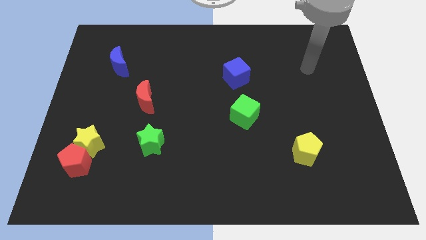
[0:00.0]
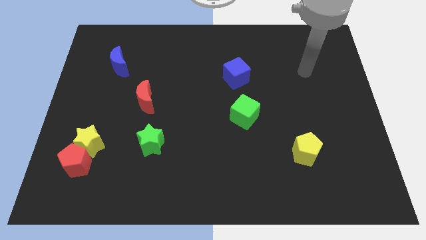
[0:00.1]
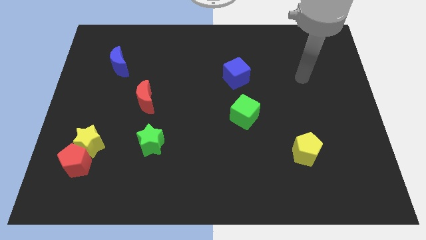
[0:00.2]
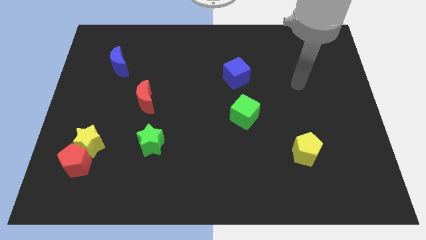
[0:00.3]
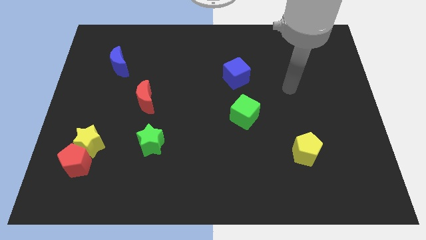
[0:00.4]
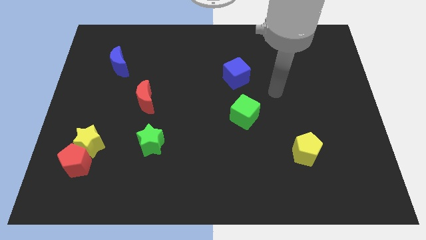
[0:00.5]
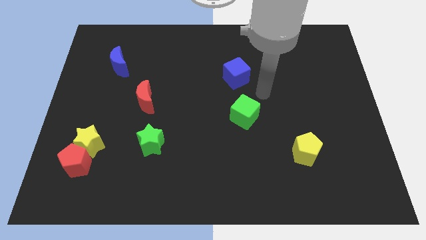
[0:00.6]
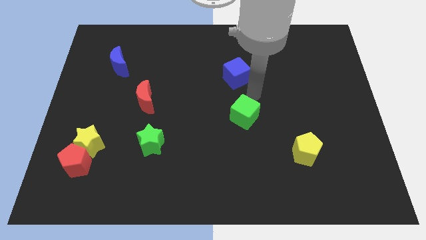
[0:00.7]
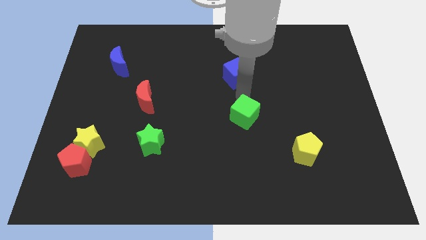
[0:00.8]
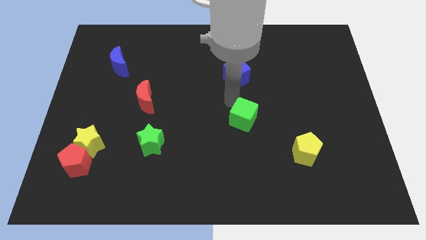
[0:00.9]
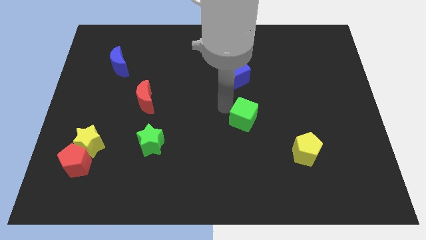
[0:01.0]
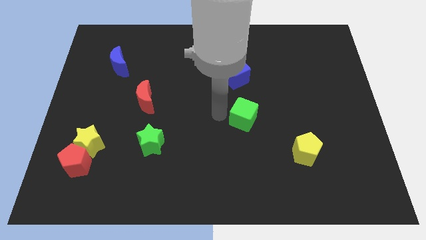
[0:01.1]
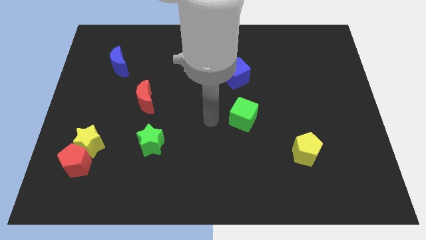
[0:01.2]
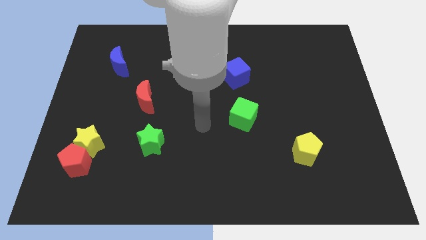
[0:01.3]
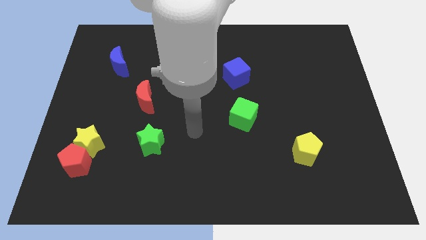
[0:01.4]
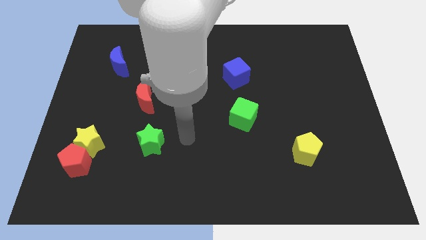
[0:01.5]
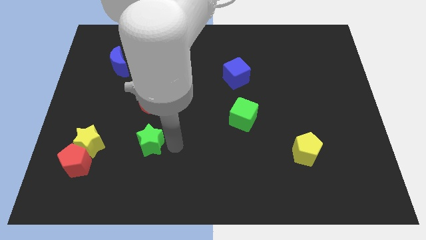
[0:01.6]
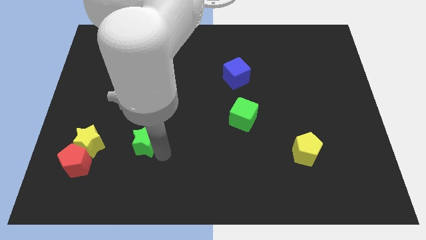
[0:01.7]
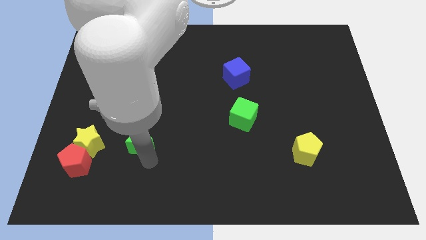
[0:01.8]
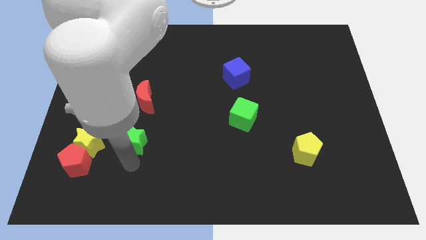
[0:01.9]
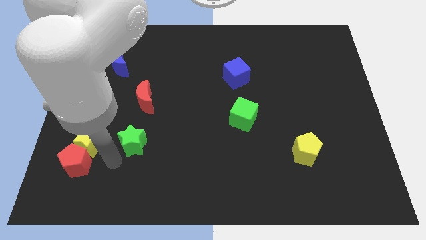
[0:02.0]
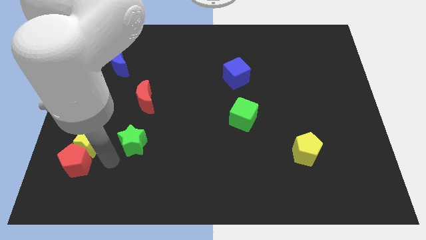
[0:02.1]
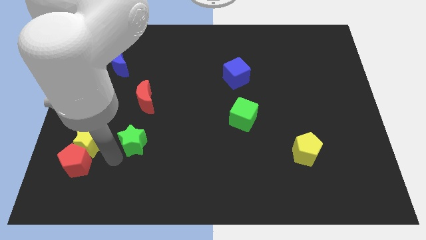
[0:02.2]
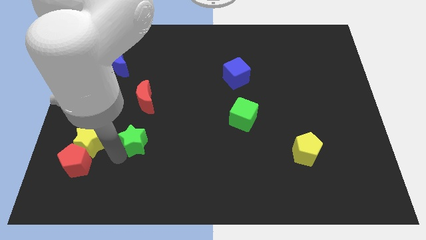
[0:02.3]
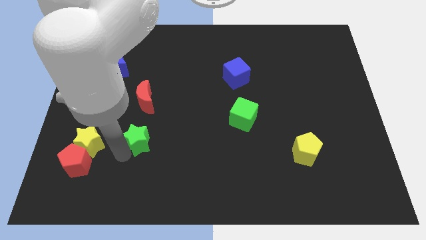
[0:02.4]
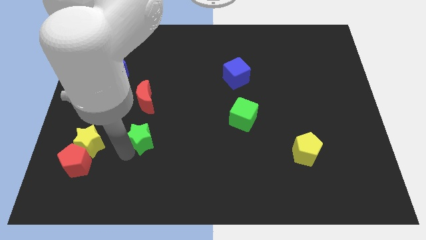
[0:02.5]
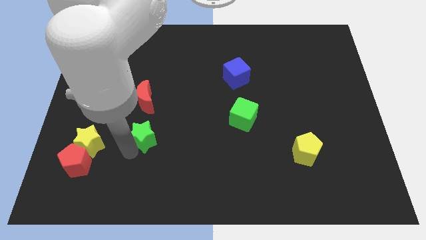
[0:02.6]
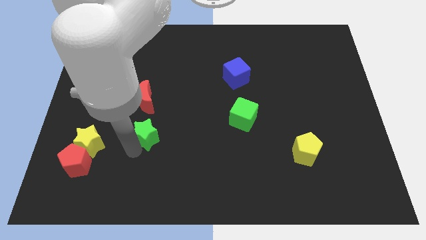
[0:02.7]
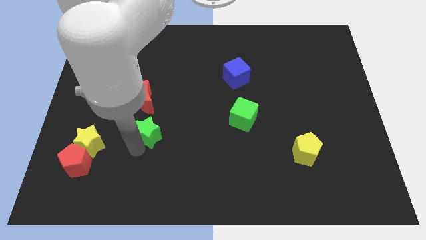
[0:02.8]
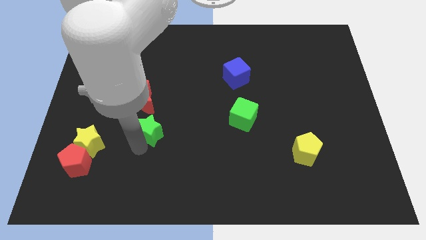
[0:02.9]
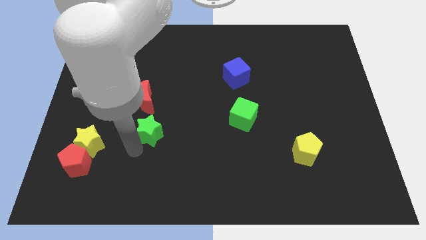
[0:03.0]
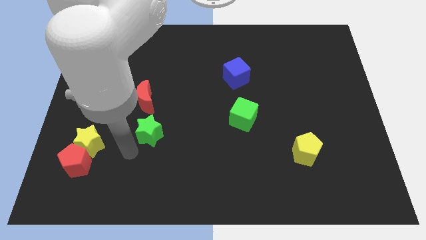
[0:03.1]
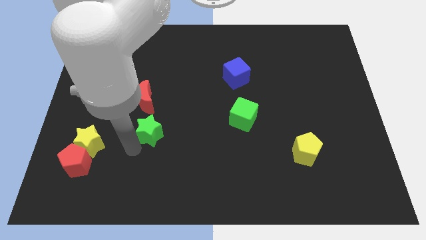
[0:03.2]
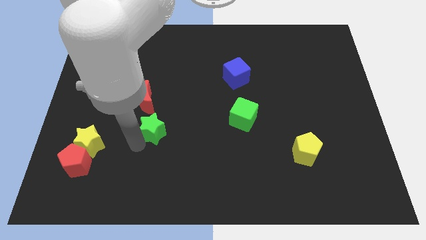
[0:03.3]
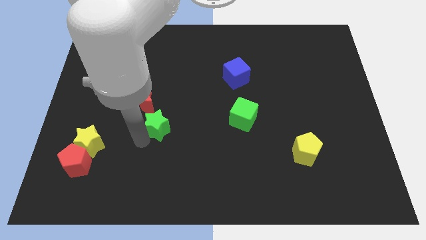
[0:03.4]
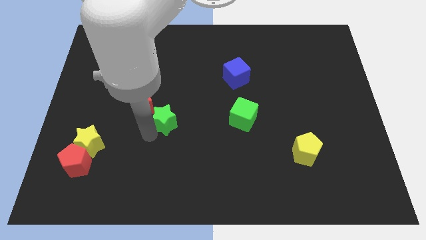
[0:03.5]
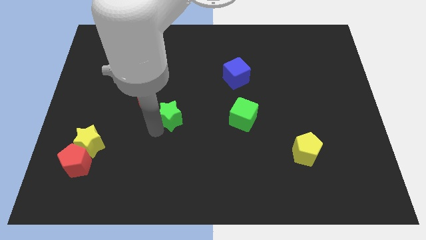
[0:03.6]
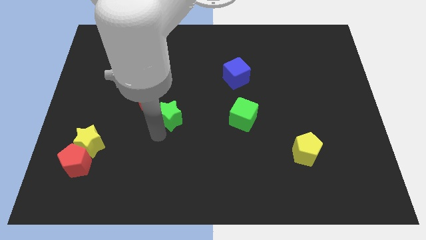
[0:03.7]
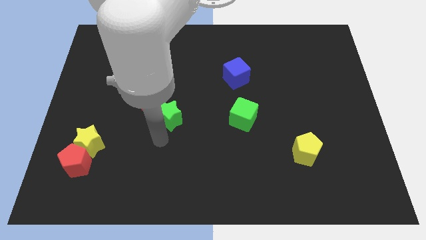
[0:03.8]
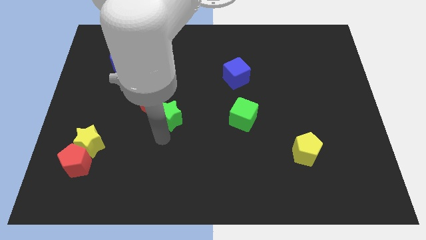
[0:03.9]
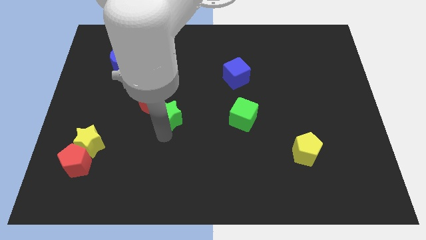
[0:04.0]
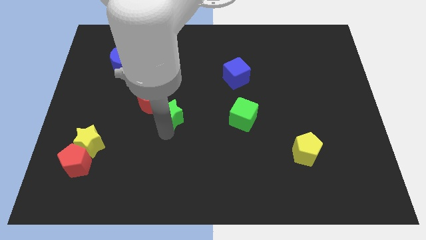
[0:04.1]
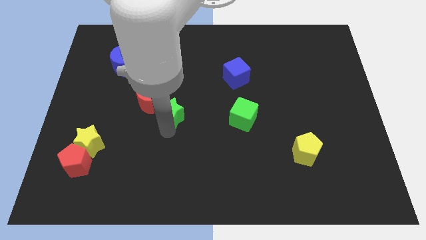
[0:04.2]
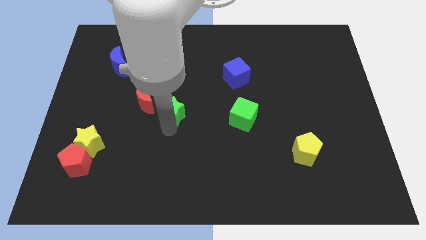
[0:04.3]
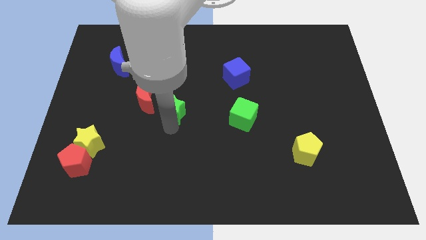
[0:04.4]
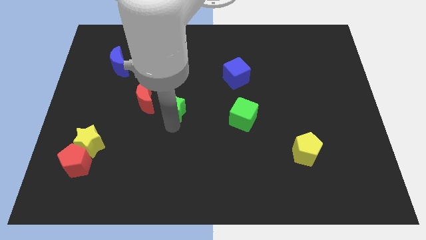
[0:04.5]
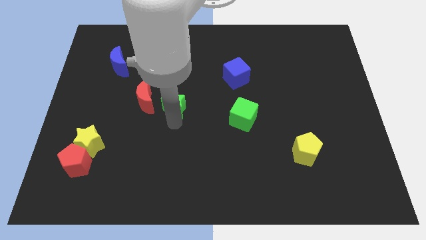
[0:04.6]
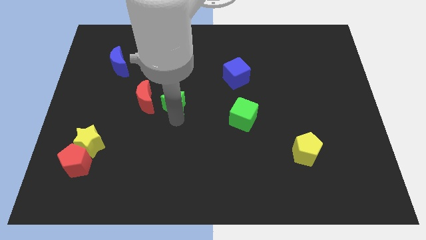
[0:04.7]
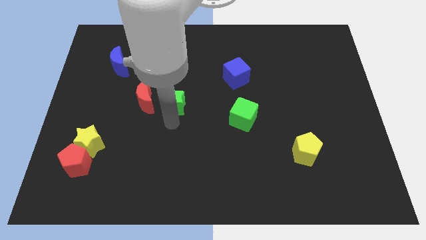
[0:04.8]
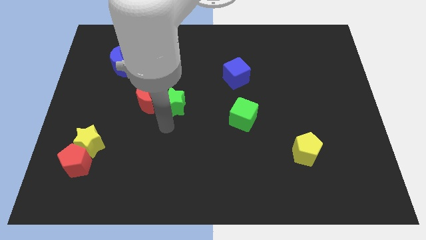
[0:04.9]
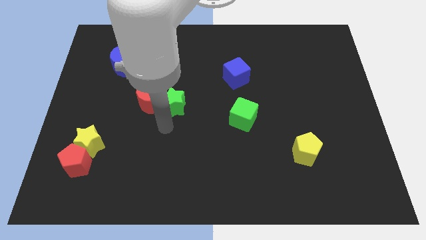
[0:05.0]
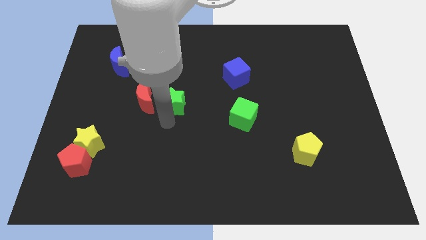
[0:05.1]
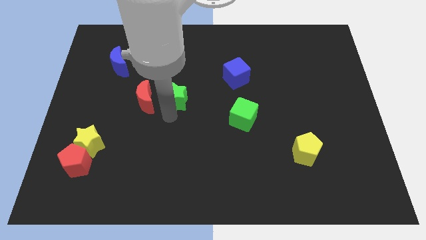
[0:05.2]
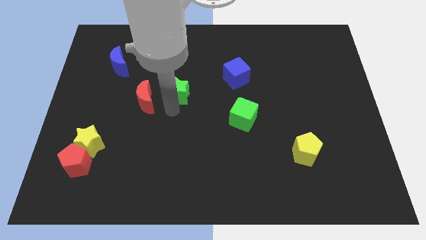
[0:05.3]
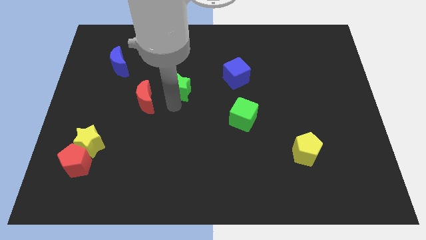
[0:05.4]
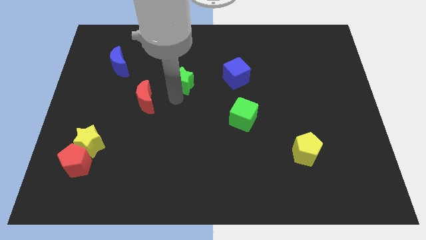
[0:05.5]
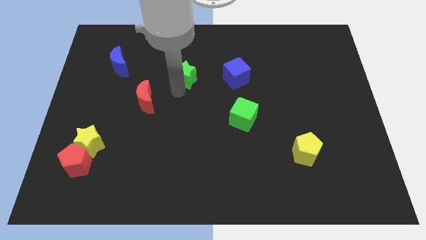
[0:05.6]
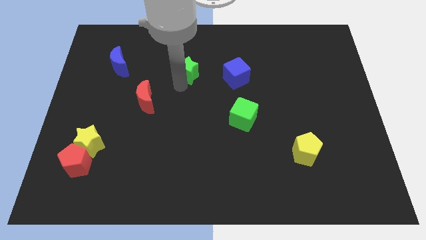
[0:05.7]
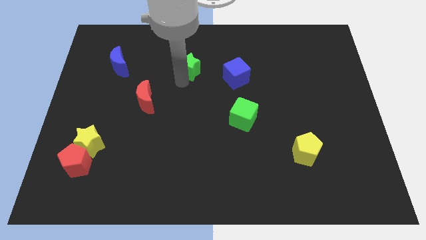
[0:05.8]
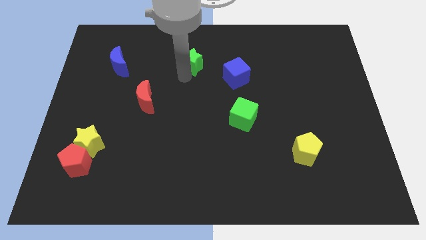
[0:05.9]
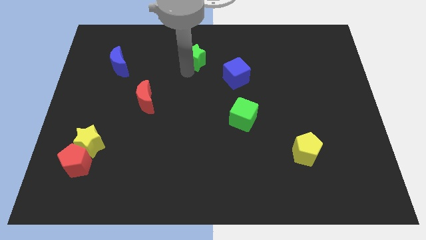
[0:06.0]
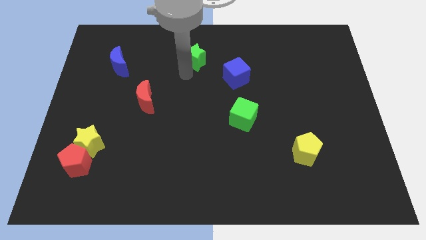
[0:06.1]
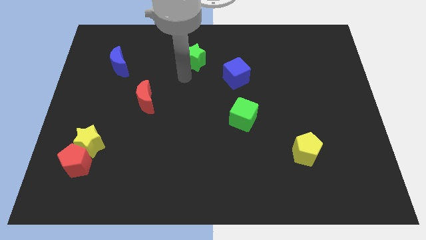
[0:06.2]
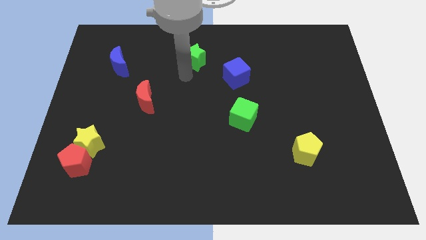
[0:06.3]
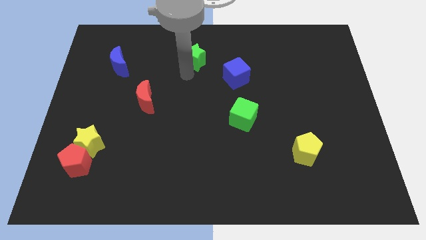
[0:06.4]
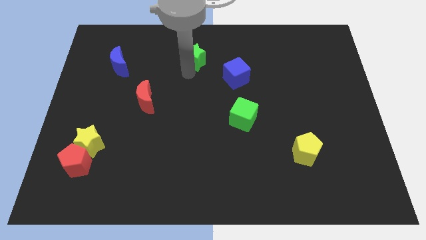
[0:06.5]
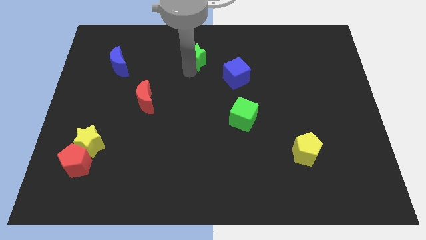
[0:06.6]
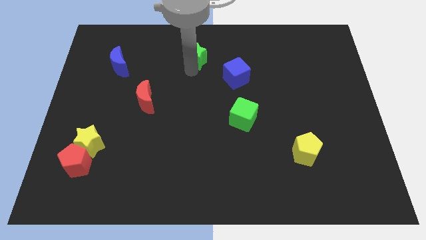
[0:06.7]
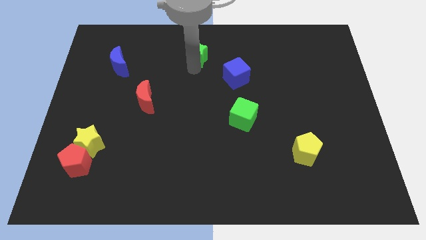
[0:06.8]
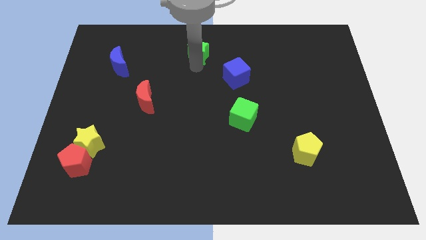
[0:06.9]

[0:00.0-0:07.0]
move the green star to the top side
